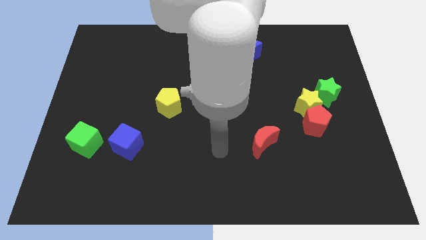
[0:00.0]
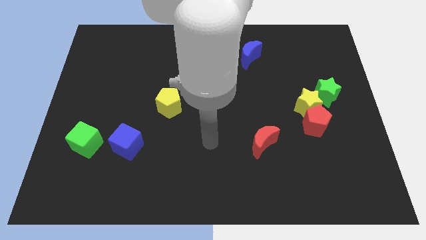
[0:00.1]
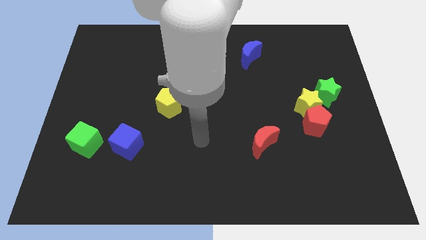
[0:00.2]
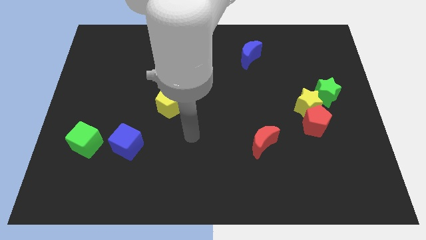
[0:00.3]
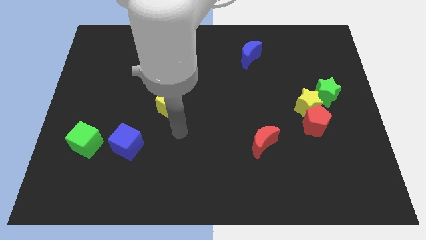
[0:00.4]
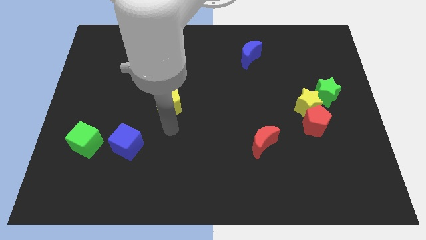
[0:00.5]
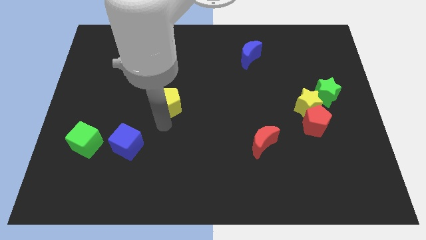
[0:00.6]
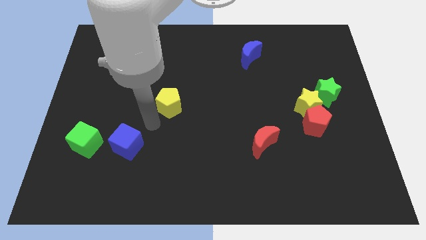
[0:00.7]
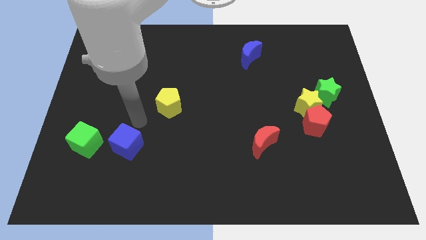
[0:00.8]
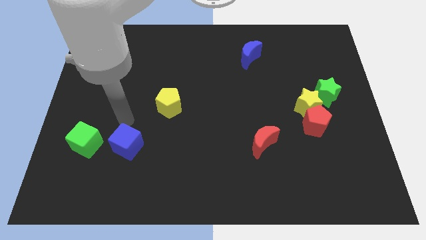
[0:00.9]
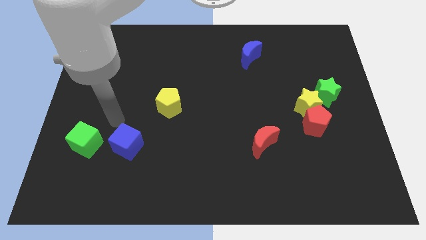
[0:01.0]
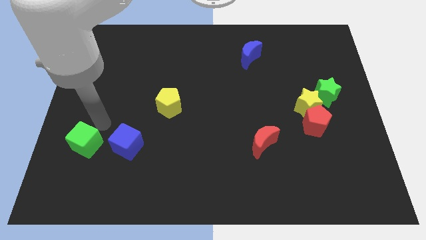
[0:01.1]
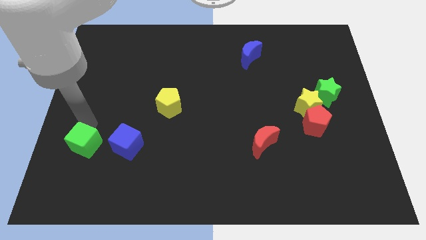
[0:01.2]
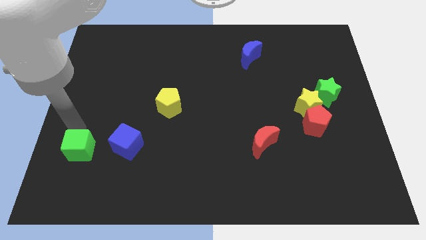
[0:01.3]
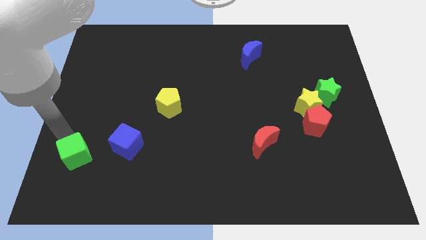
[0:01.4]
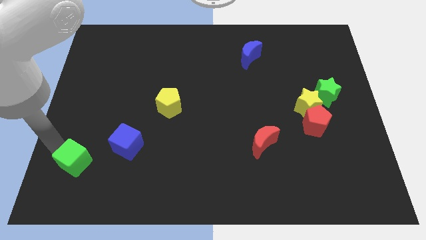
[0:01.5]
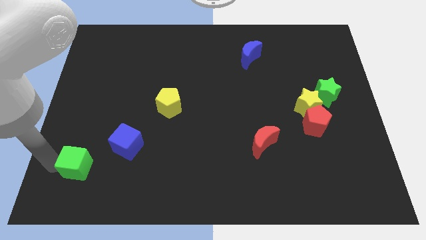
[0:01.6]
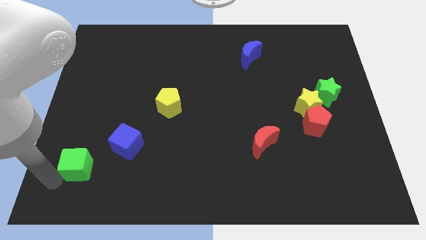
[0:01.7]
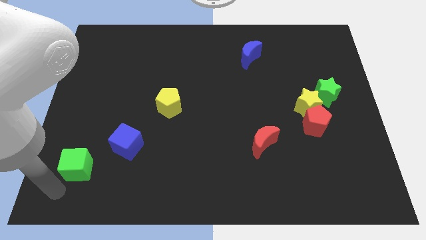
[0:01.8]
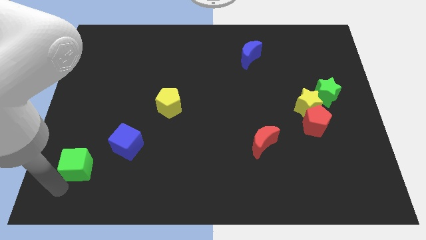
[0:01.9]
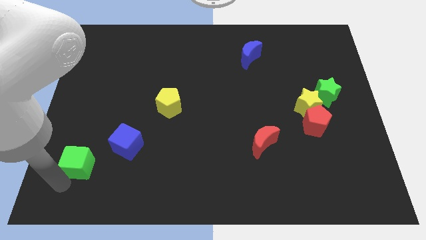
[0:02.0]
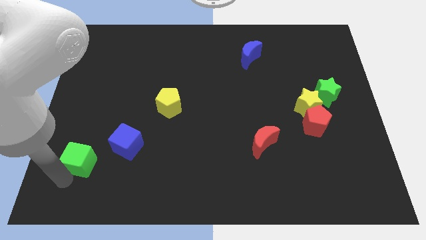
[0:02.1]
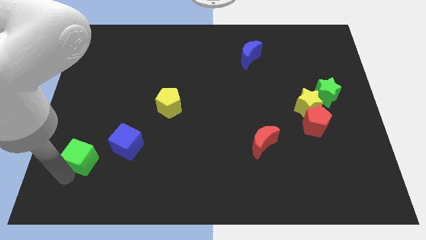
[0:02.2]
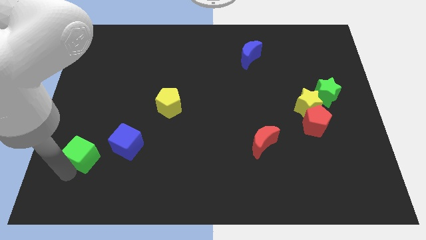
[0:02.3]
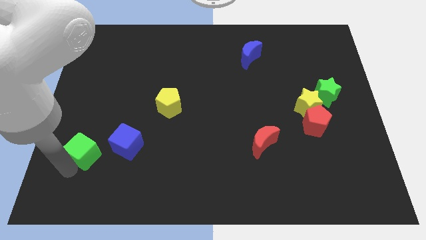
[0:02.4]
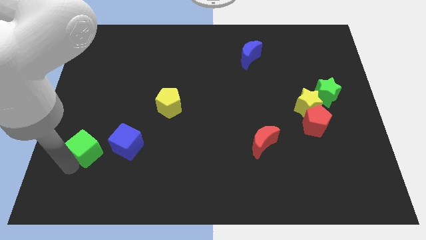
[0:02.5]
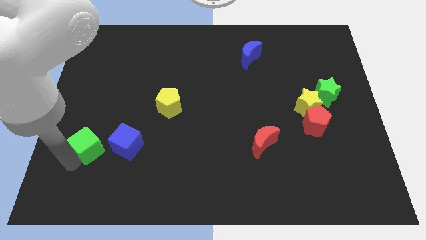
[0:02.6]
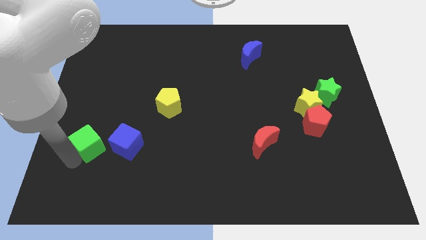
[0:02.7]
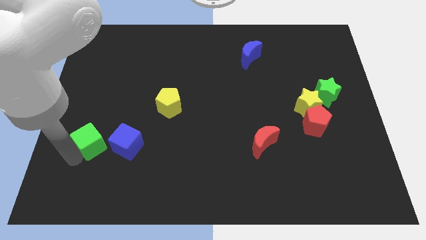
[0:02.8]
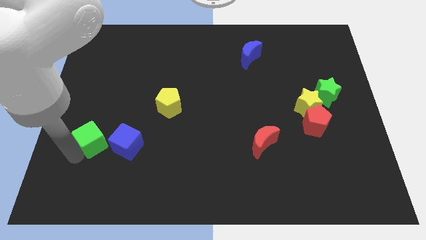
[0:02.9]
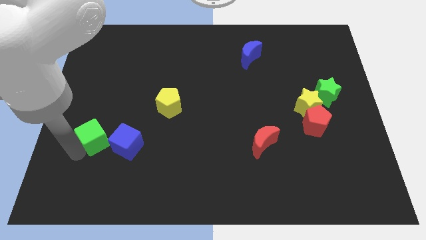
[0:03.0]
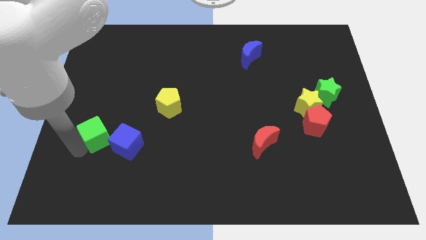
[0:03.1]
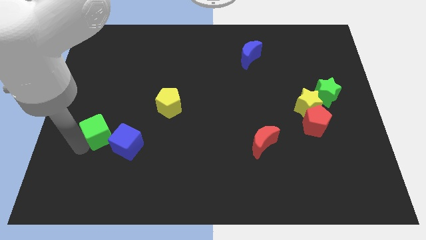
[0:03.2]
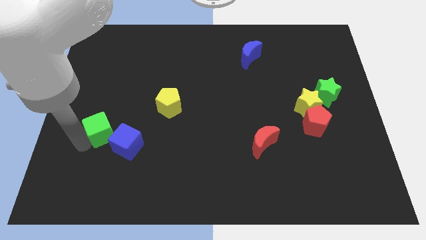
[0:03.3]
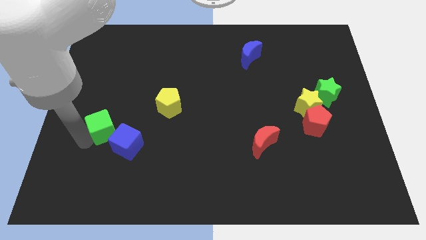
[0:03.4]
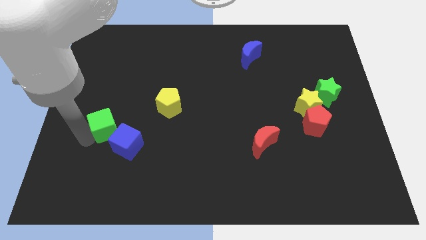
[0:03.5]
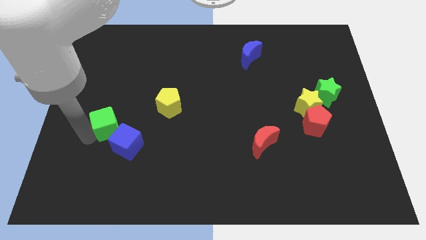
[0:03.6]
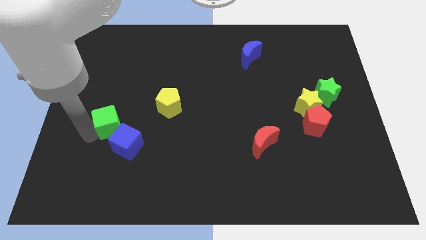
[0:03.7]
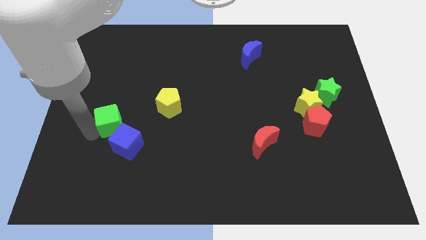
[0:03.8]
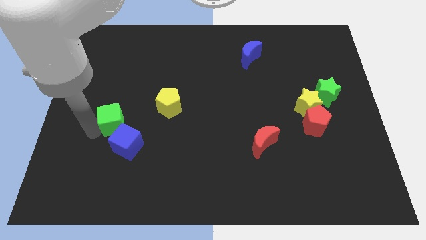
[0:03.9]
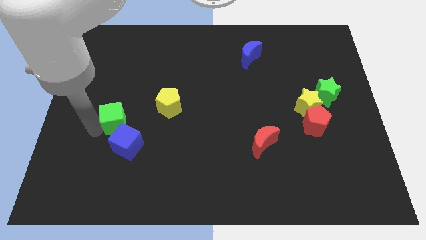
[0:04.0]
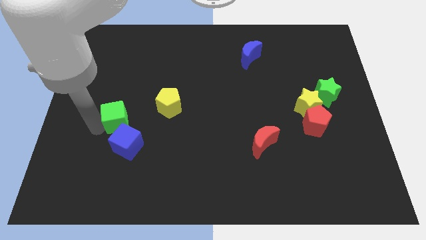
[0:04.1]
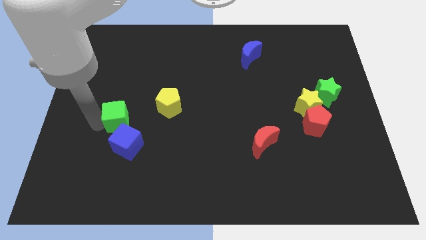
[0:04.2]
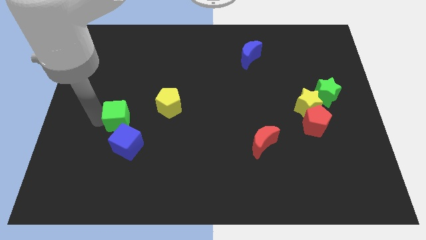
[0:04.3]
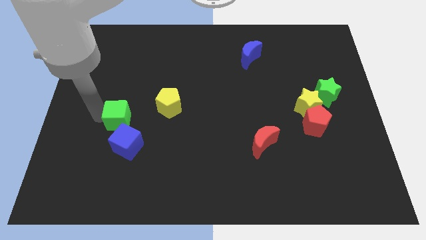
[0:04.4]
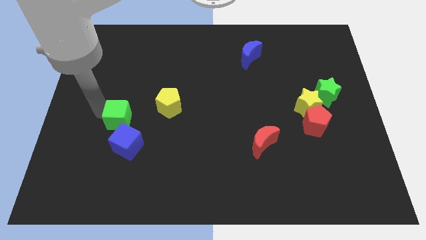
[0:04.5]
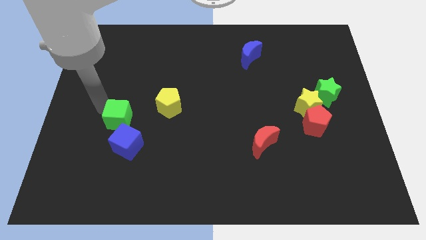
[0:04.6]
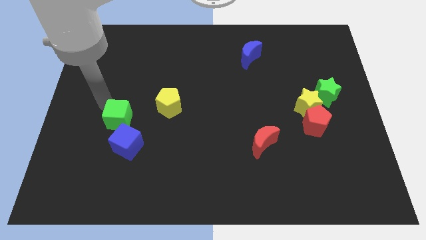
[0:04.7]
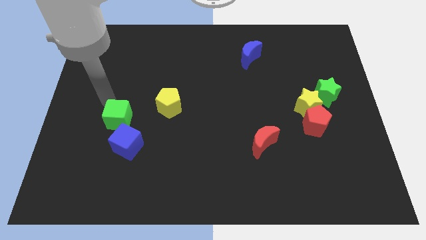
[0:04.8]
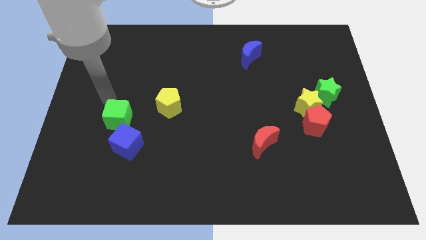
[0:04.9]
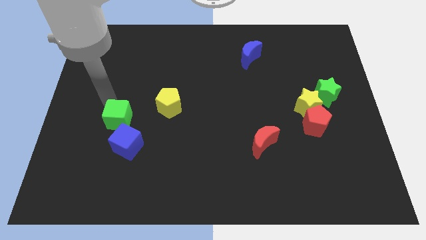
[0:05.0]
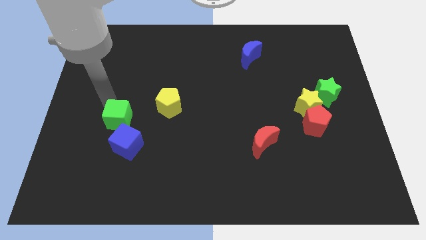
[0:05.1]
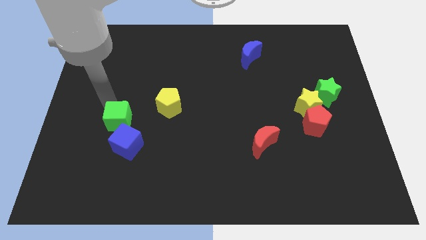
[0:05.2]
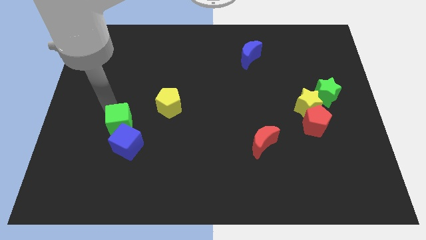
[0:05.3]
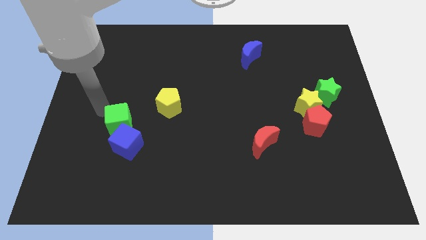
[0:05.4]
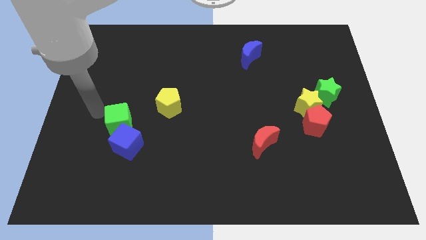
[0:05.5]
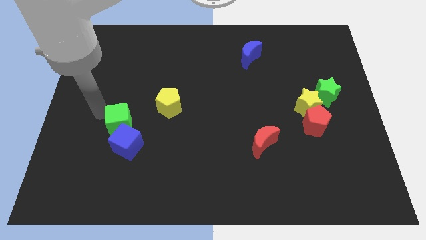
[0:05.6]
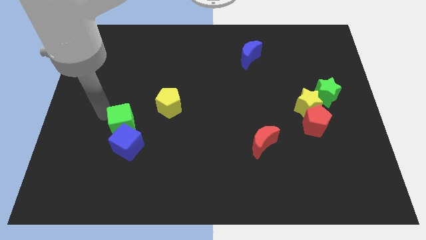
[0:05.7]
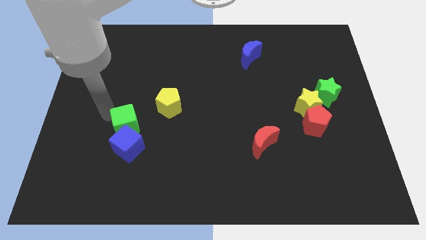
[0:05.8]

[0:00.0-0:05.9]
push the green cube slightly to the right

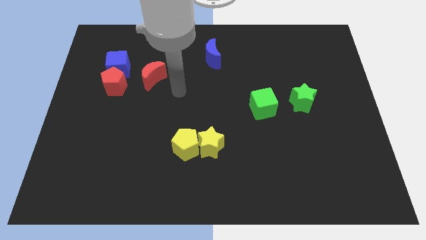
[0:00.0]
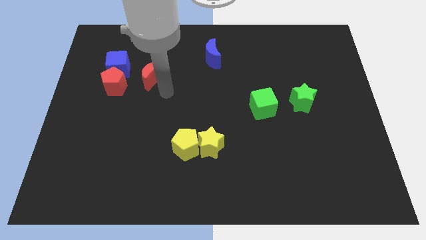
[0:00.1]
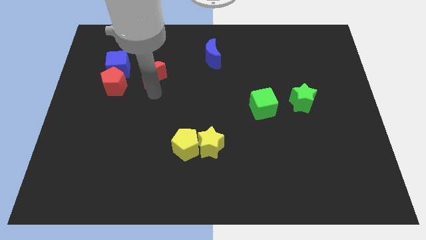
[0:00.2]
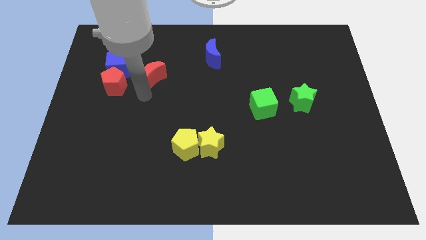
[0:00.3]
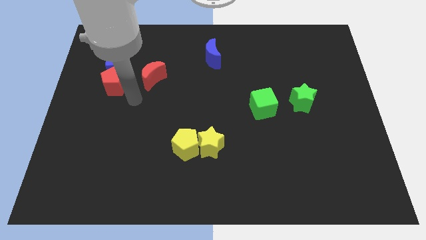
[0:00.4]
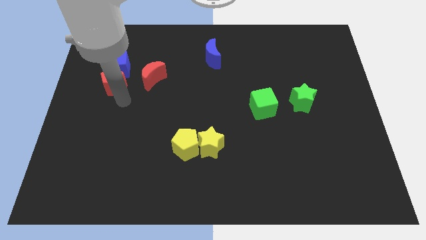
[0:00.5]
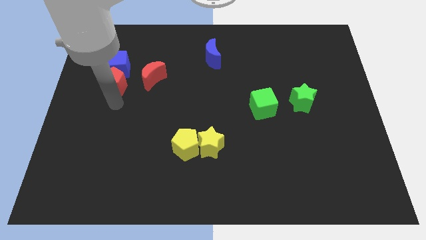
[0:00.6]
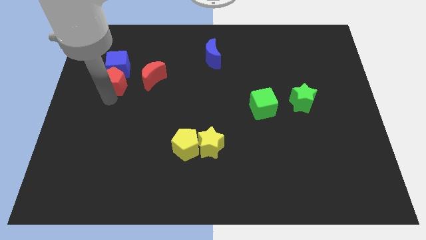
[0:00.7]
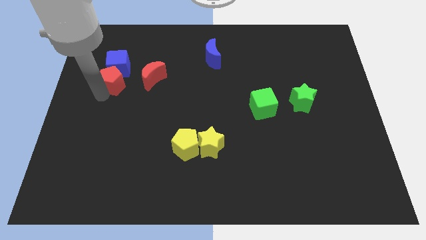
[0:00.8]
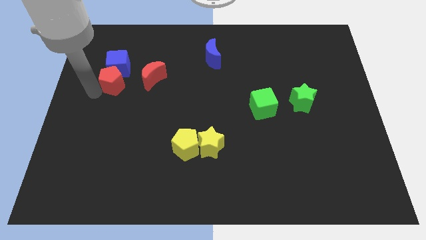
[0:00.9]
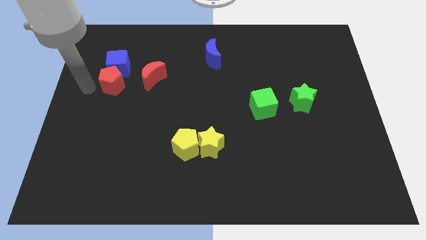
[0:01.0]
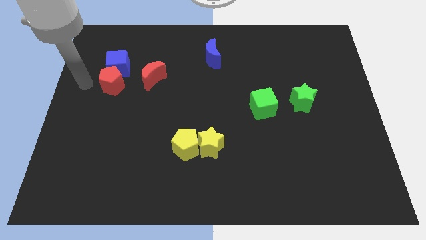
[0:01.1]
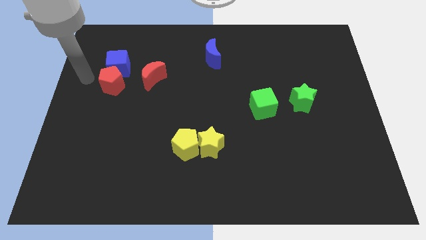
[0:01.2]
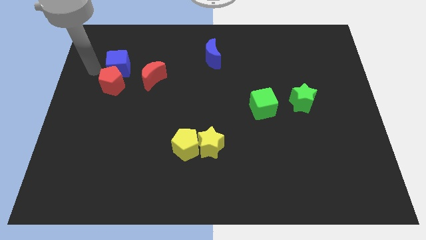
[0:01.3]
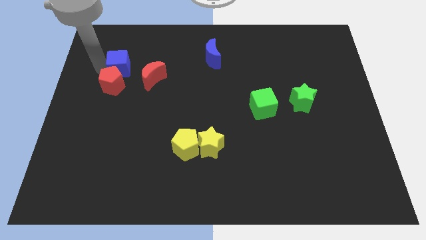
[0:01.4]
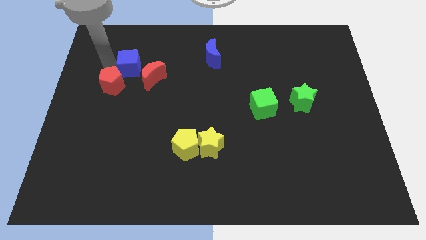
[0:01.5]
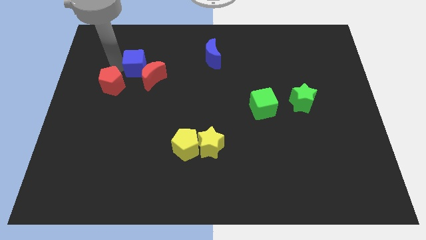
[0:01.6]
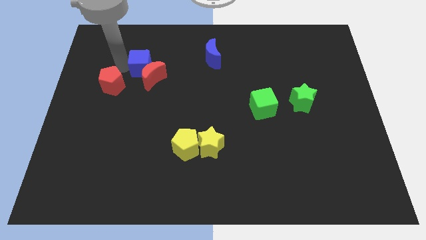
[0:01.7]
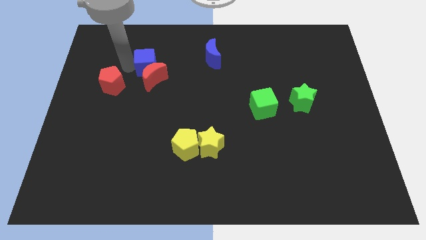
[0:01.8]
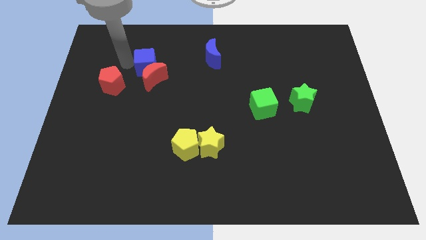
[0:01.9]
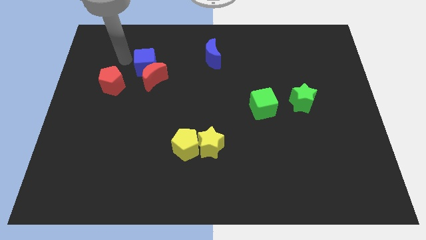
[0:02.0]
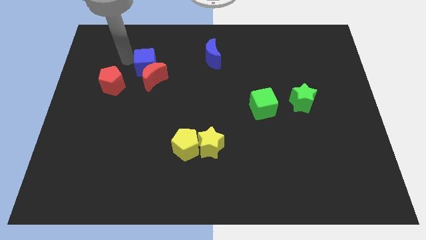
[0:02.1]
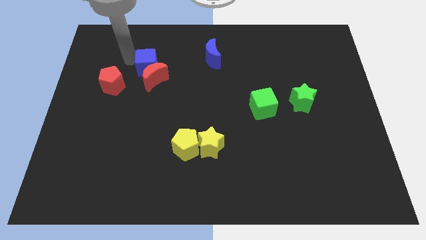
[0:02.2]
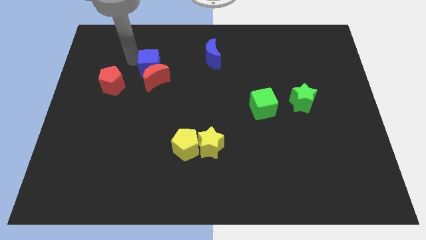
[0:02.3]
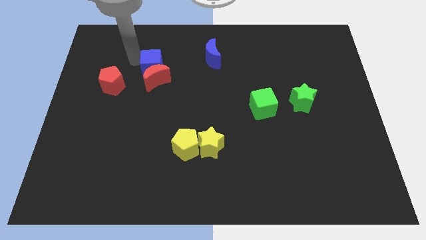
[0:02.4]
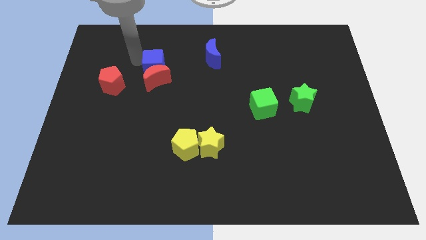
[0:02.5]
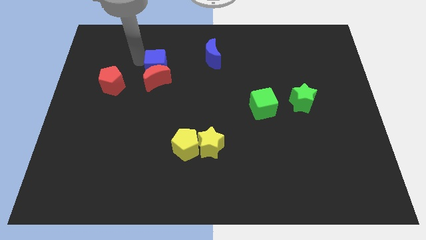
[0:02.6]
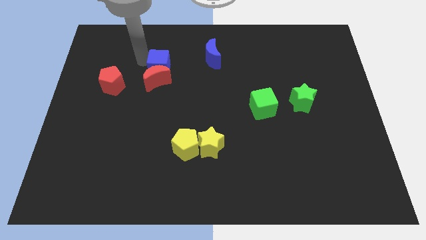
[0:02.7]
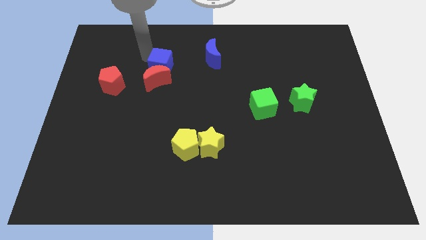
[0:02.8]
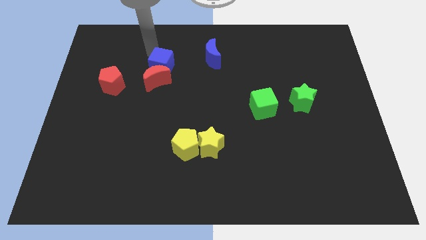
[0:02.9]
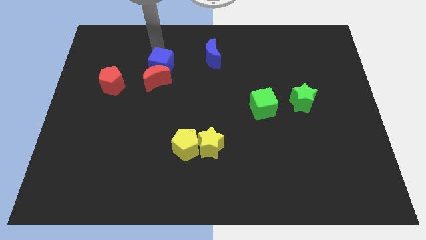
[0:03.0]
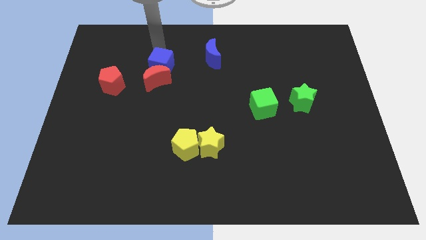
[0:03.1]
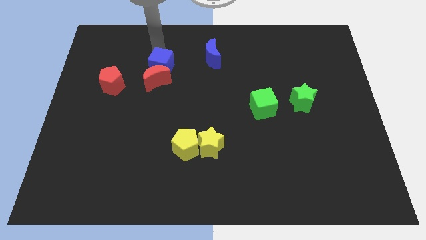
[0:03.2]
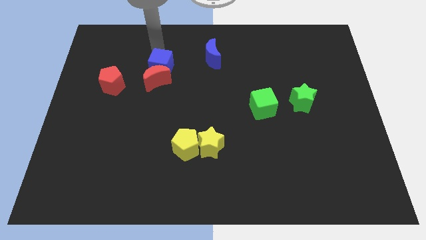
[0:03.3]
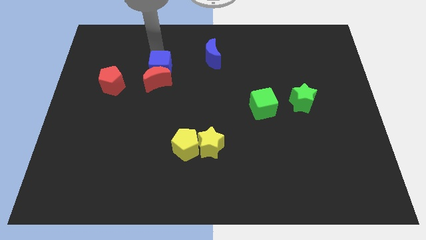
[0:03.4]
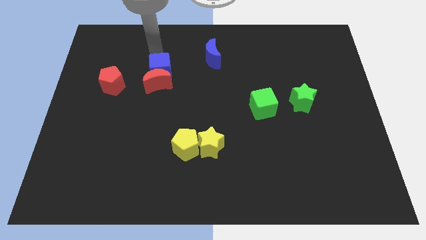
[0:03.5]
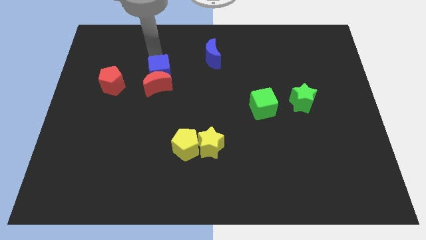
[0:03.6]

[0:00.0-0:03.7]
slightly move the blue cube down and to the right
